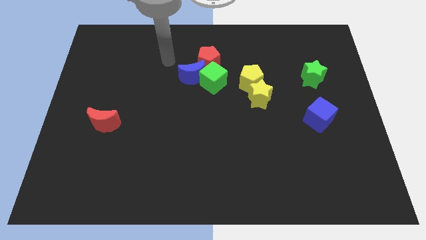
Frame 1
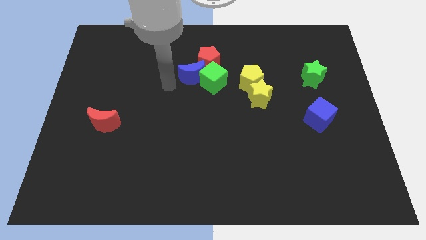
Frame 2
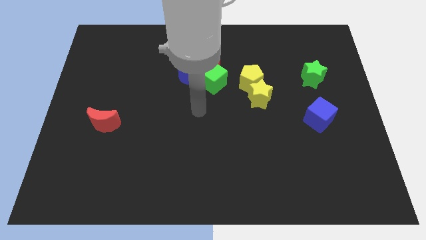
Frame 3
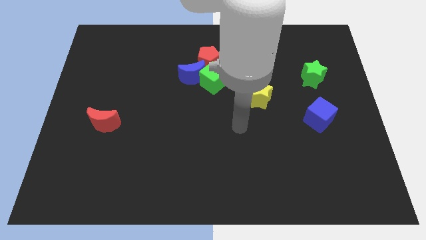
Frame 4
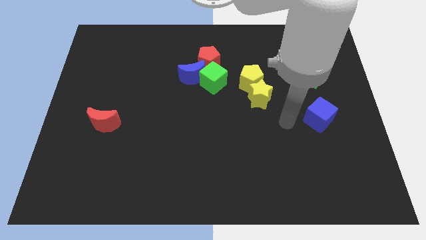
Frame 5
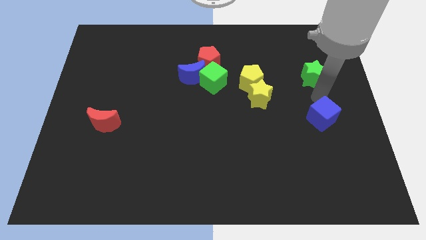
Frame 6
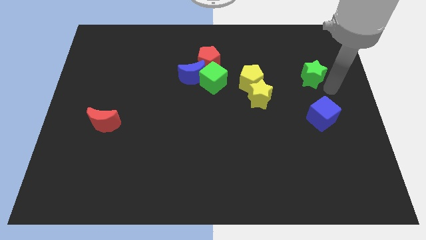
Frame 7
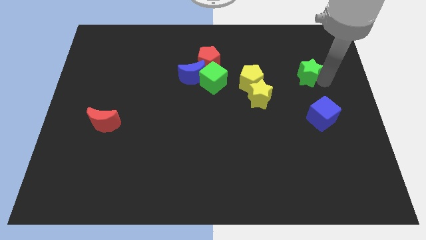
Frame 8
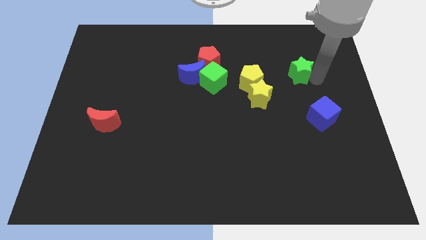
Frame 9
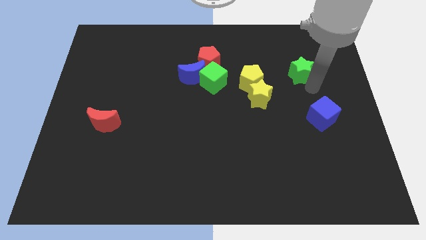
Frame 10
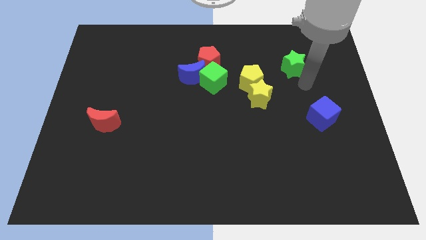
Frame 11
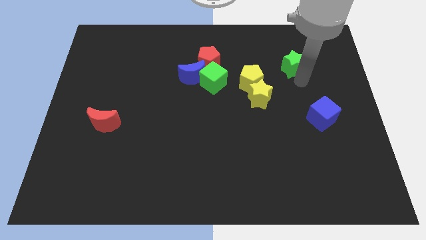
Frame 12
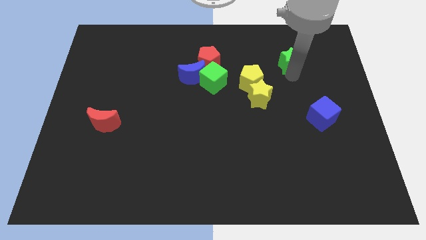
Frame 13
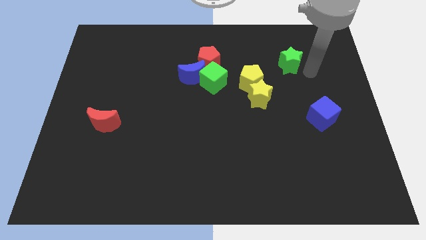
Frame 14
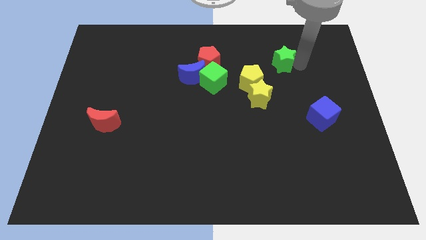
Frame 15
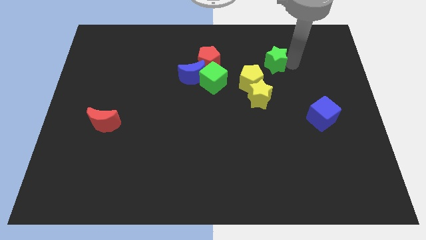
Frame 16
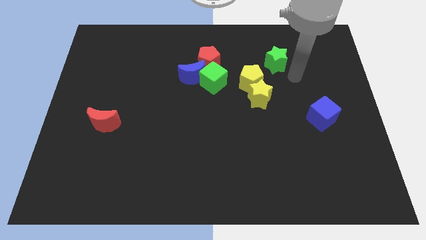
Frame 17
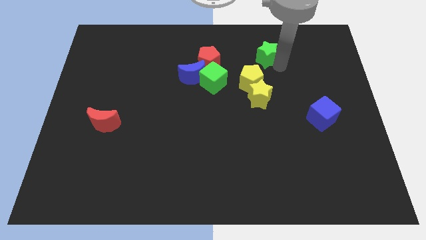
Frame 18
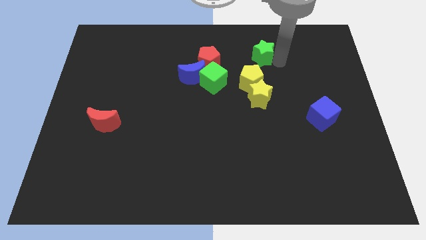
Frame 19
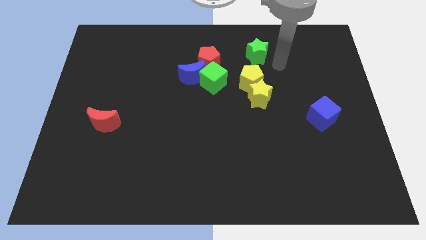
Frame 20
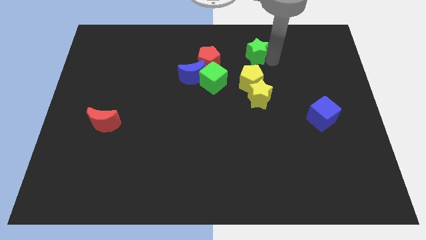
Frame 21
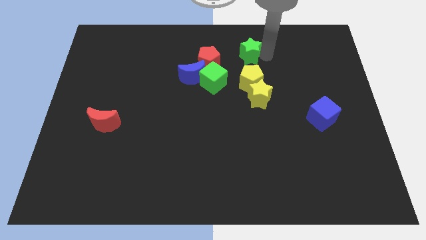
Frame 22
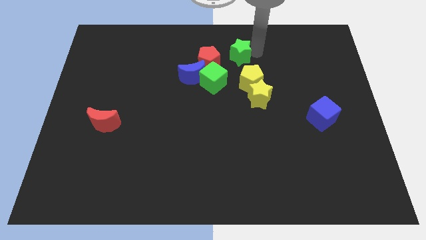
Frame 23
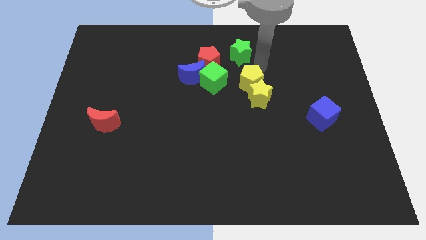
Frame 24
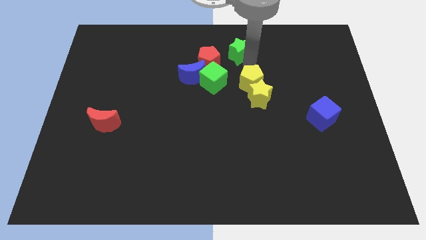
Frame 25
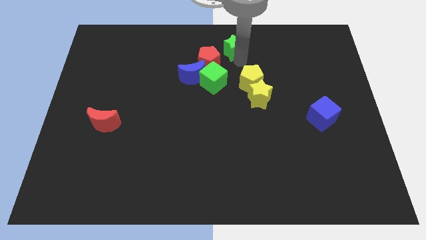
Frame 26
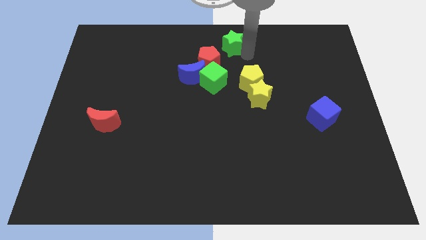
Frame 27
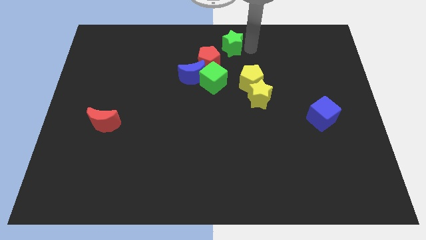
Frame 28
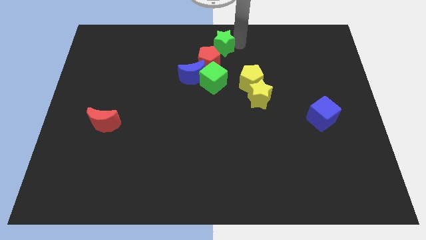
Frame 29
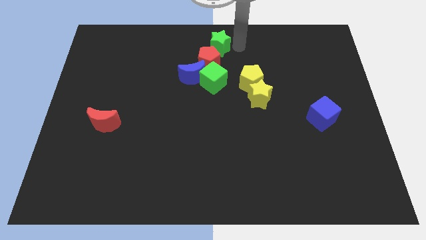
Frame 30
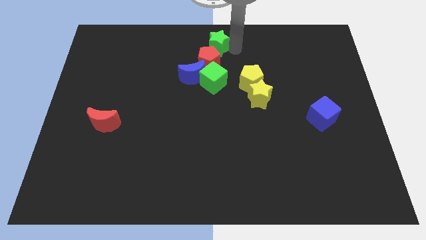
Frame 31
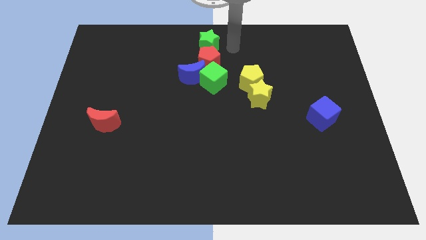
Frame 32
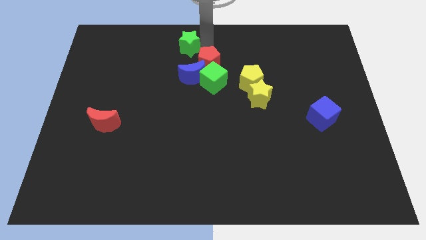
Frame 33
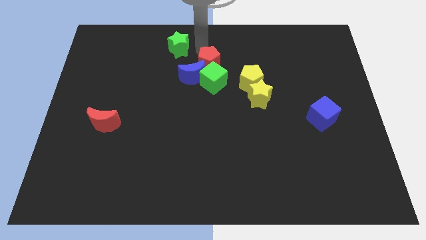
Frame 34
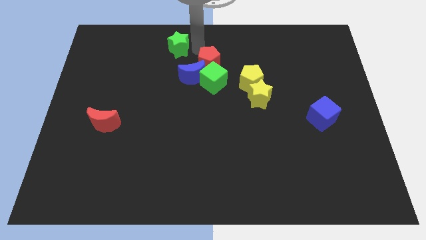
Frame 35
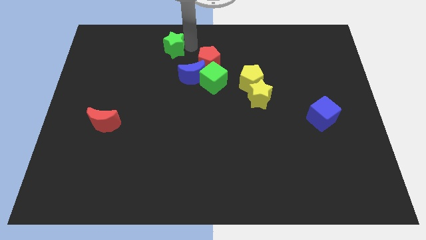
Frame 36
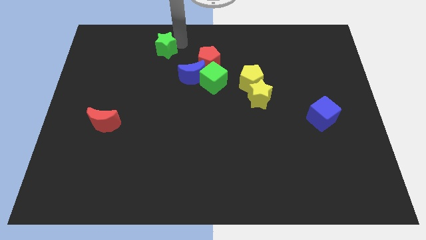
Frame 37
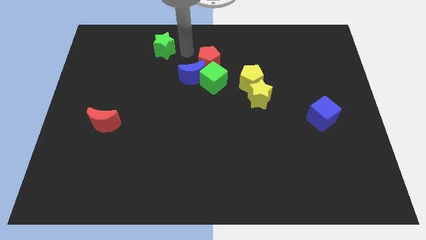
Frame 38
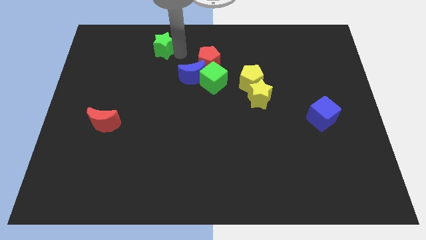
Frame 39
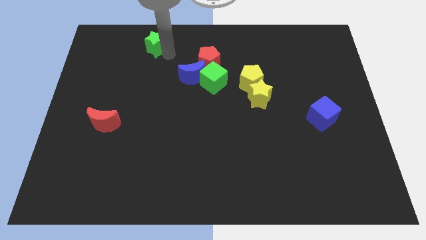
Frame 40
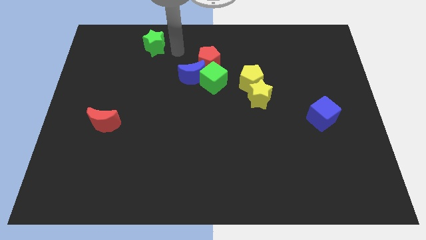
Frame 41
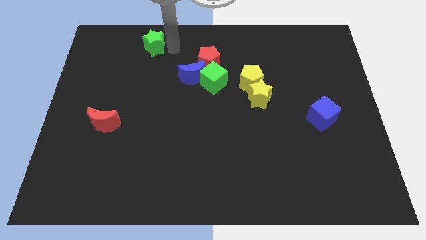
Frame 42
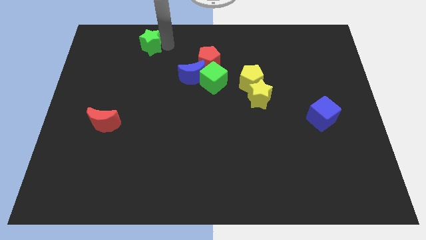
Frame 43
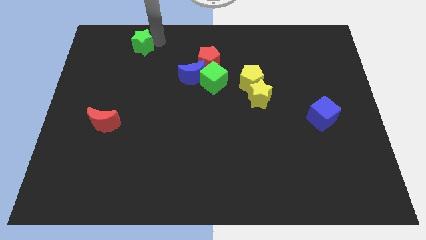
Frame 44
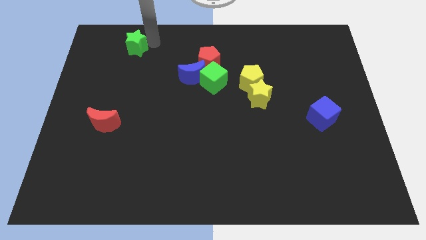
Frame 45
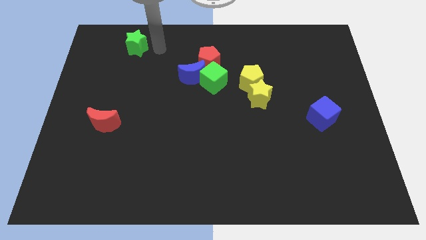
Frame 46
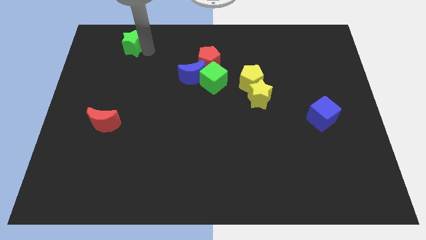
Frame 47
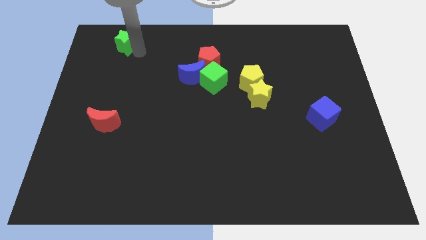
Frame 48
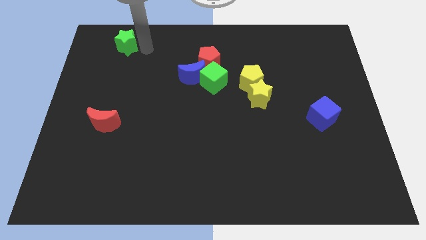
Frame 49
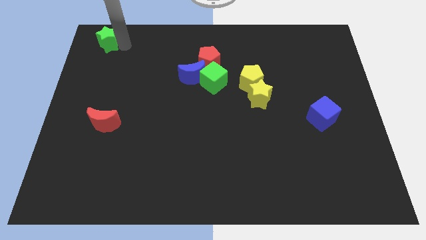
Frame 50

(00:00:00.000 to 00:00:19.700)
push the green star to the top left corner

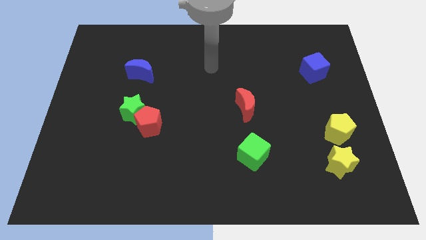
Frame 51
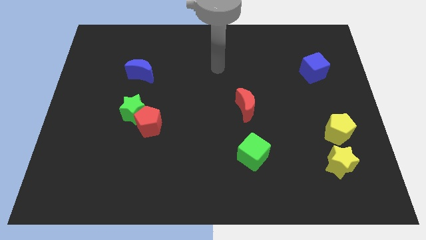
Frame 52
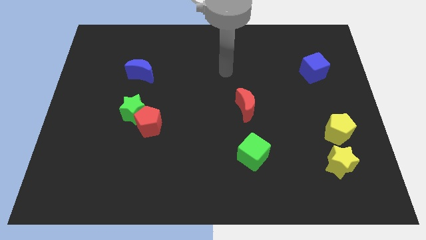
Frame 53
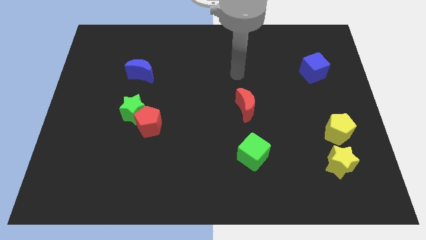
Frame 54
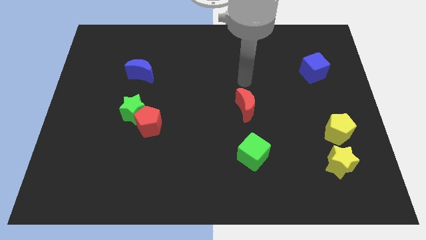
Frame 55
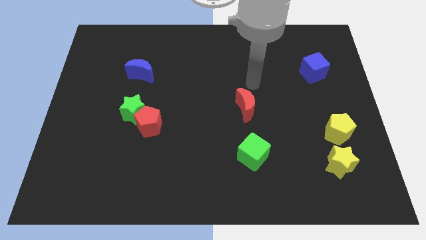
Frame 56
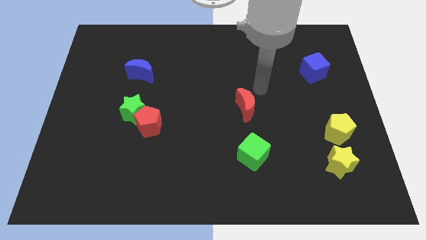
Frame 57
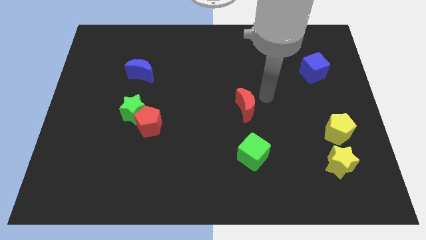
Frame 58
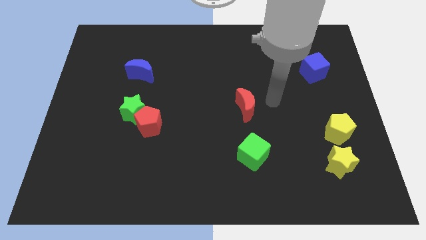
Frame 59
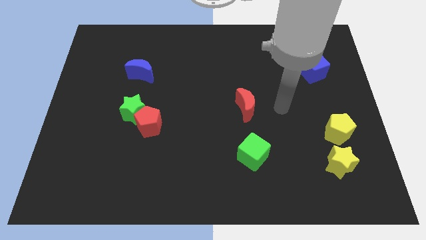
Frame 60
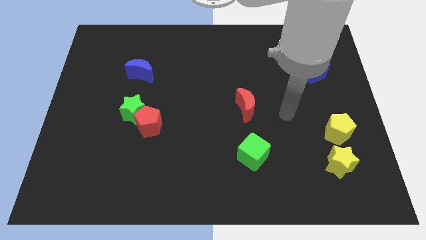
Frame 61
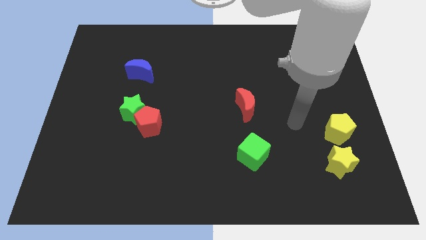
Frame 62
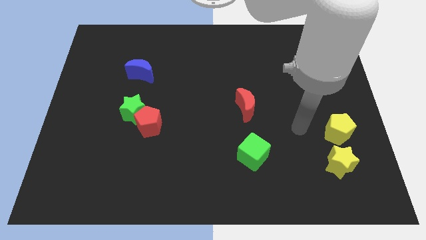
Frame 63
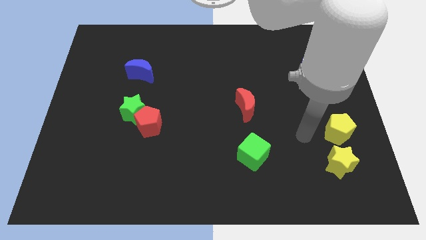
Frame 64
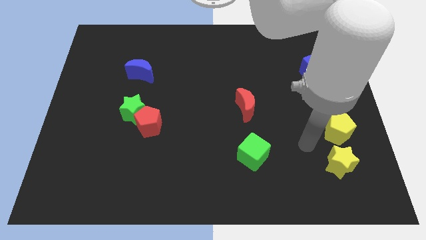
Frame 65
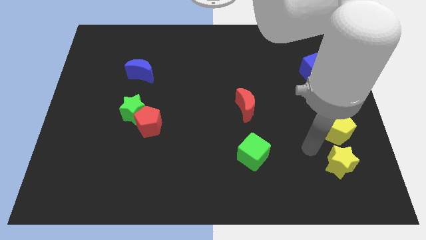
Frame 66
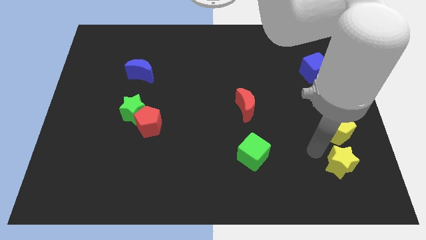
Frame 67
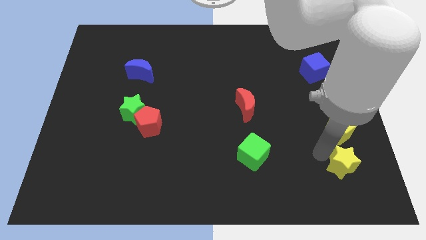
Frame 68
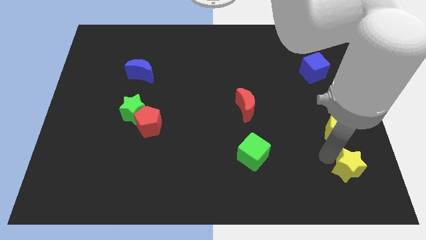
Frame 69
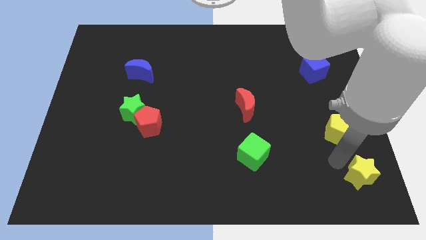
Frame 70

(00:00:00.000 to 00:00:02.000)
move the yellow star to the lower right corner

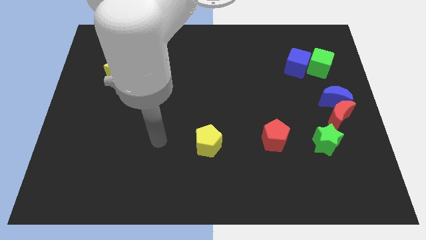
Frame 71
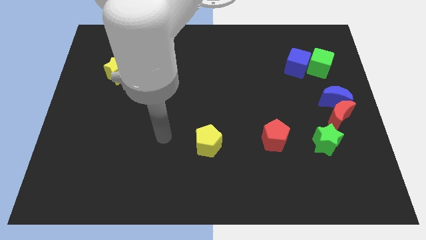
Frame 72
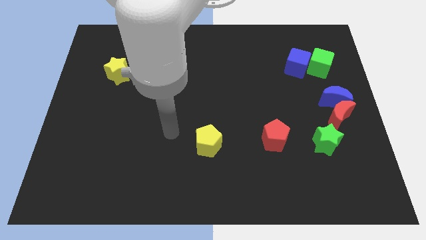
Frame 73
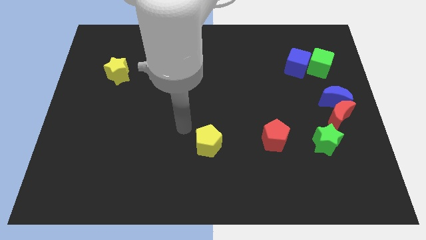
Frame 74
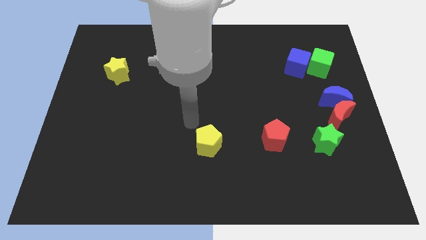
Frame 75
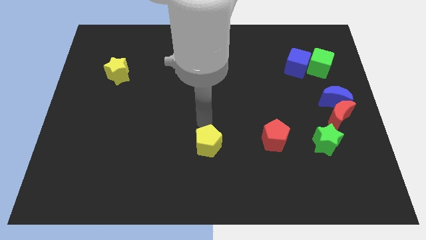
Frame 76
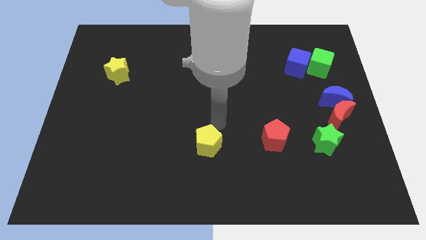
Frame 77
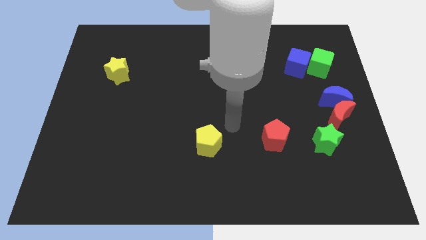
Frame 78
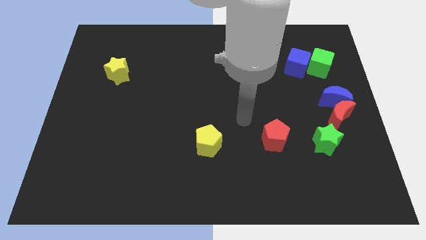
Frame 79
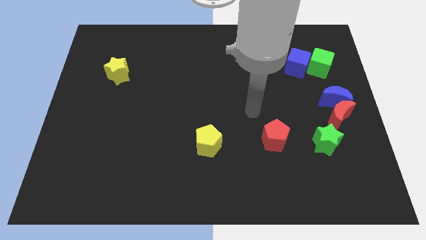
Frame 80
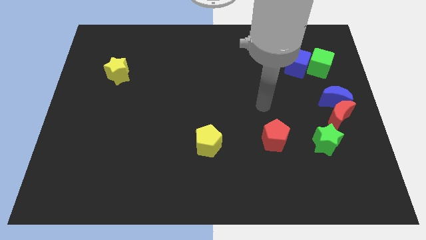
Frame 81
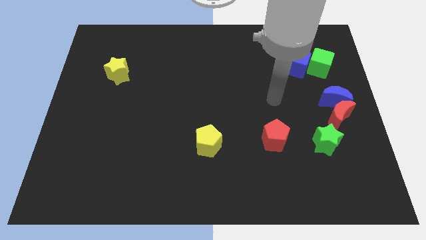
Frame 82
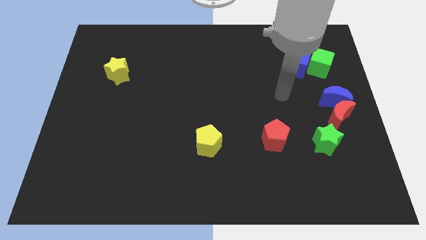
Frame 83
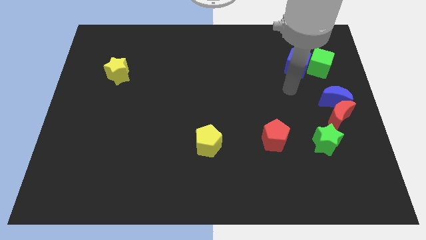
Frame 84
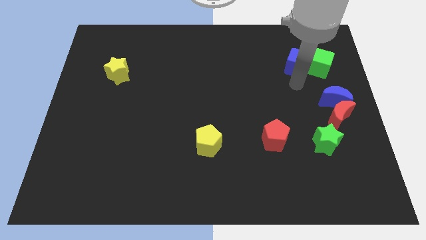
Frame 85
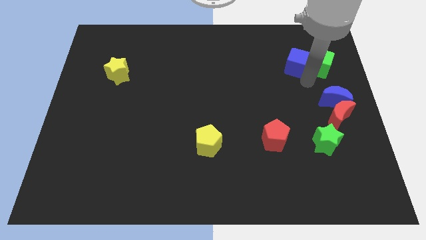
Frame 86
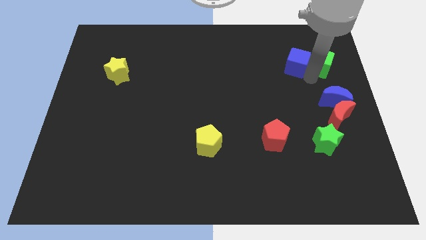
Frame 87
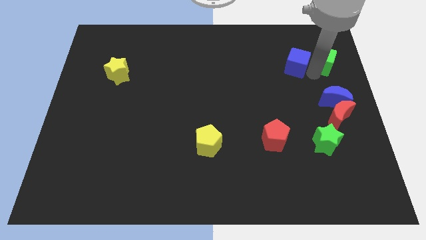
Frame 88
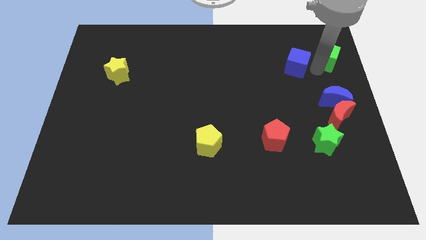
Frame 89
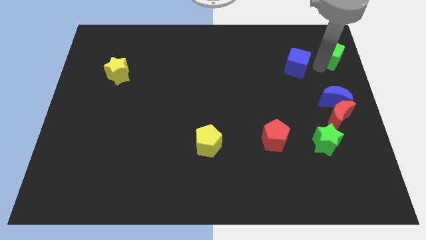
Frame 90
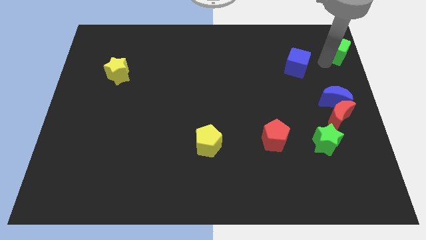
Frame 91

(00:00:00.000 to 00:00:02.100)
move the green cube to the upper right corner
